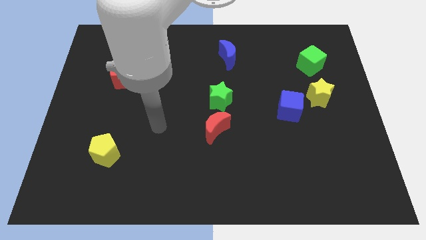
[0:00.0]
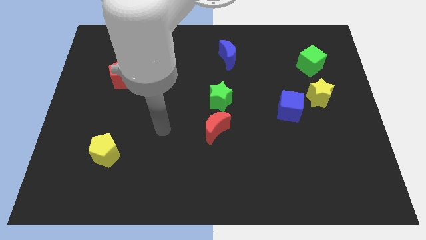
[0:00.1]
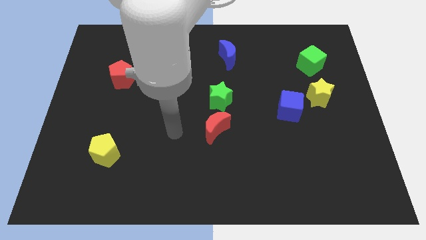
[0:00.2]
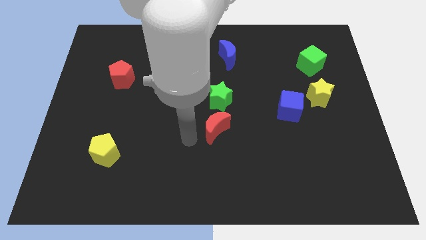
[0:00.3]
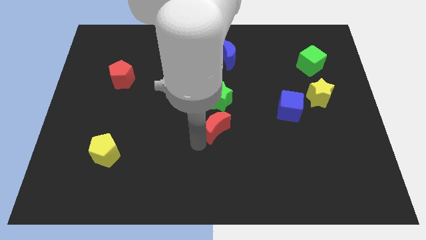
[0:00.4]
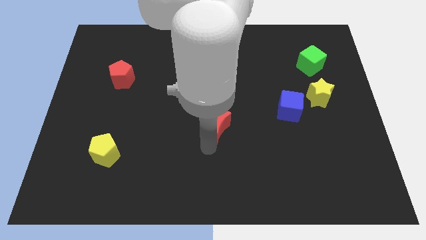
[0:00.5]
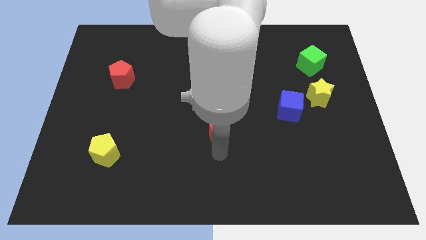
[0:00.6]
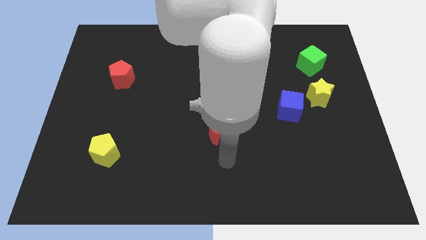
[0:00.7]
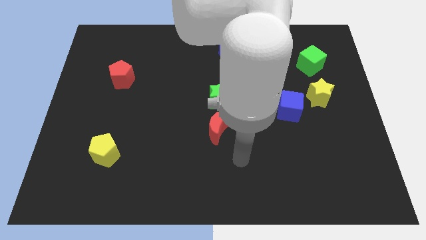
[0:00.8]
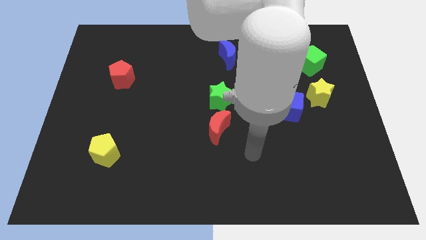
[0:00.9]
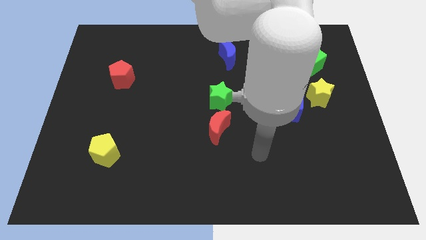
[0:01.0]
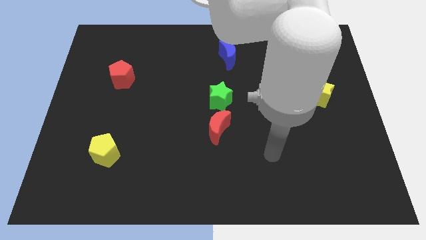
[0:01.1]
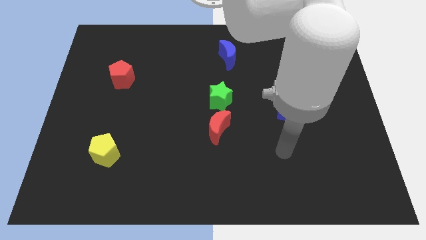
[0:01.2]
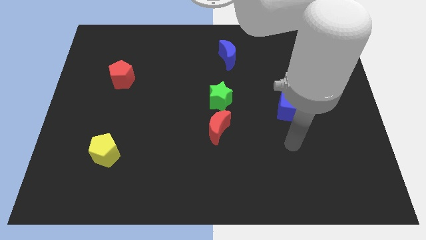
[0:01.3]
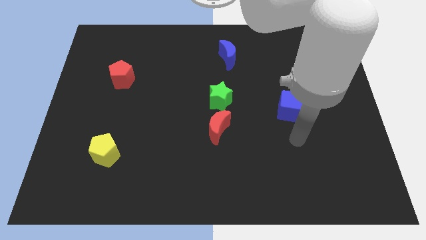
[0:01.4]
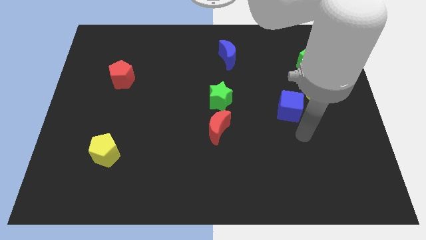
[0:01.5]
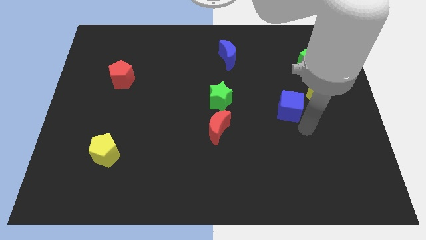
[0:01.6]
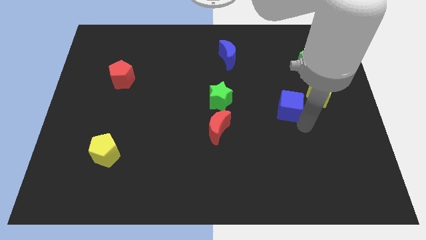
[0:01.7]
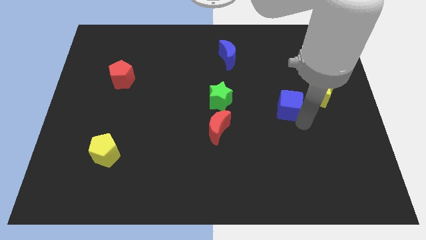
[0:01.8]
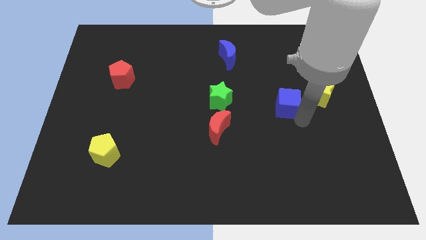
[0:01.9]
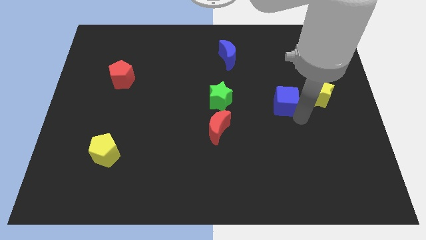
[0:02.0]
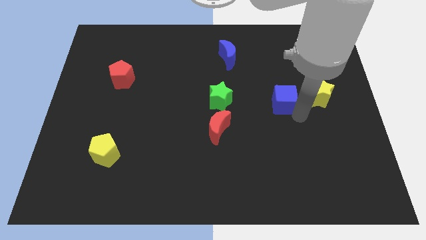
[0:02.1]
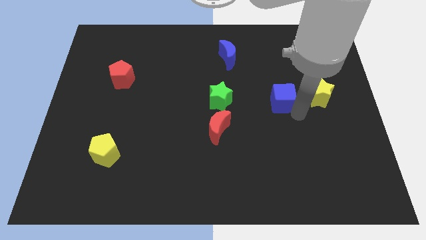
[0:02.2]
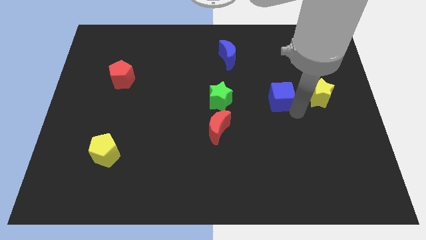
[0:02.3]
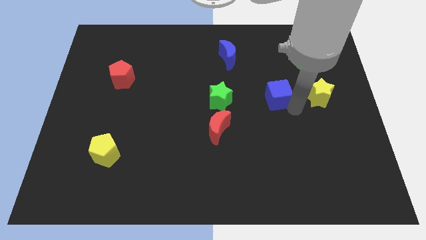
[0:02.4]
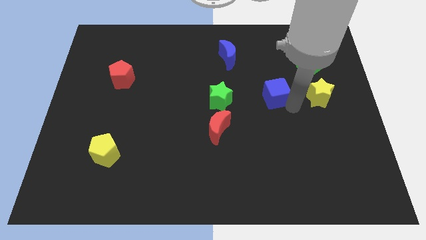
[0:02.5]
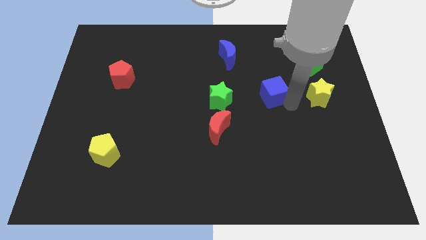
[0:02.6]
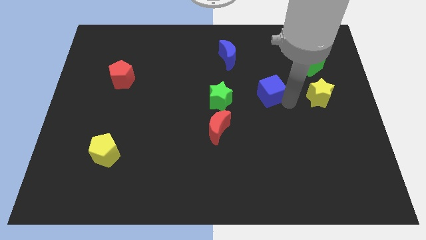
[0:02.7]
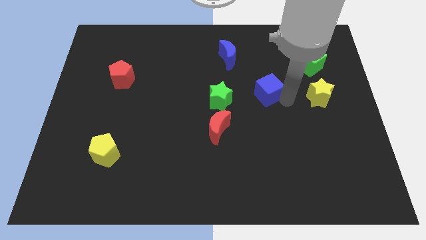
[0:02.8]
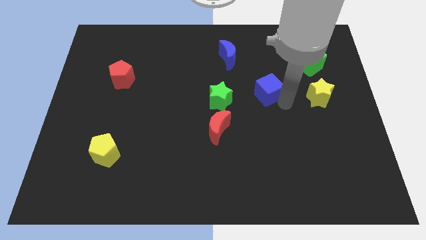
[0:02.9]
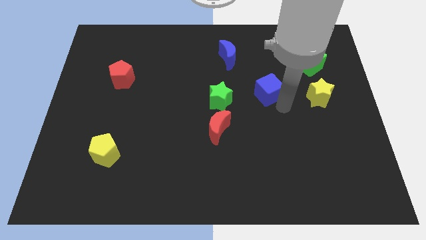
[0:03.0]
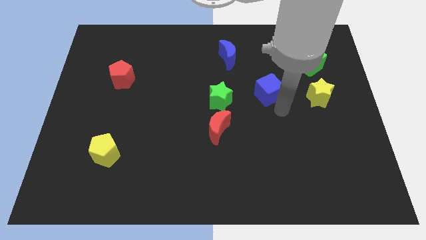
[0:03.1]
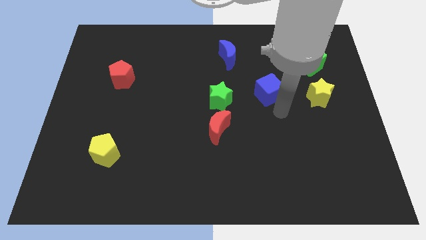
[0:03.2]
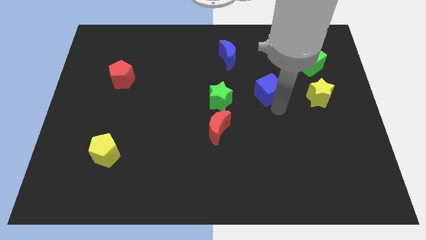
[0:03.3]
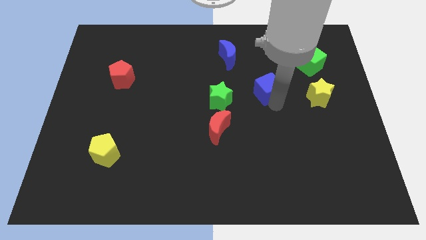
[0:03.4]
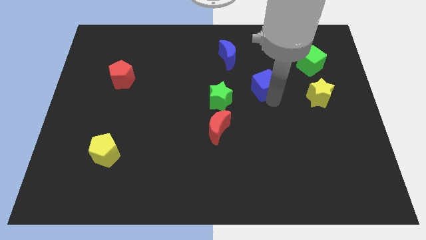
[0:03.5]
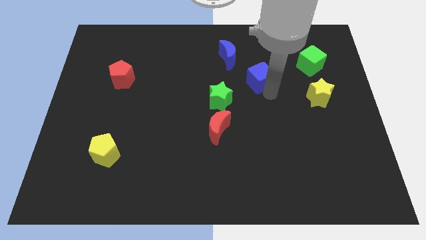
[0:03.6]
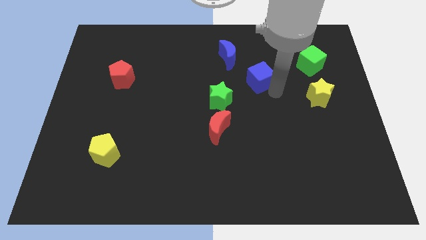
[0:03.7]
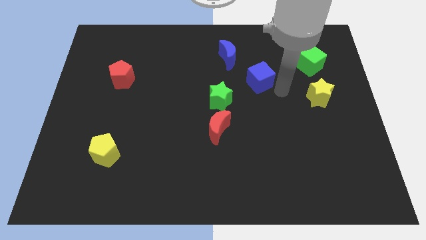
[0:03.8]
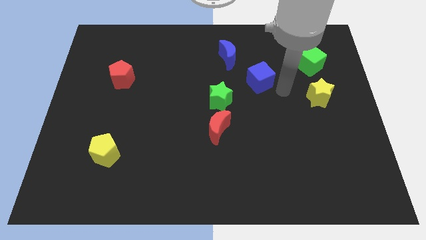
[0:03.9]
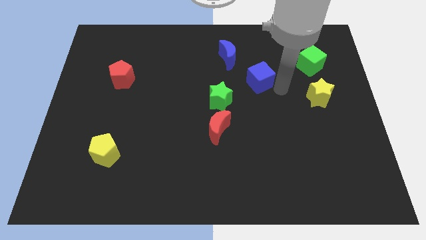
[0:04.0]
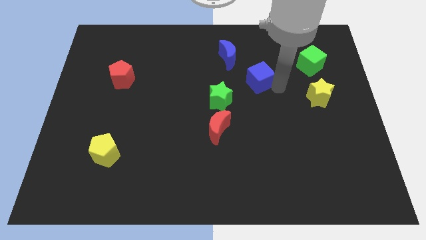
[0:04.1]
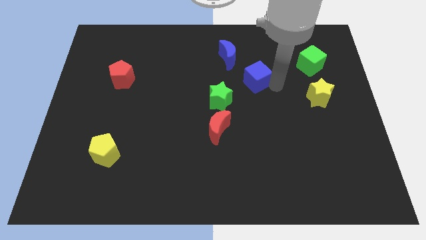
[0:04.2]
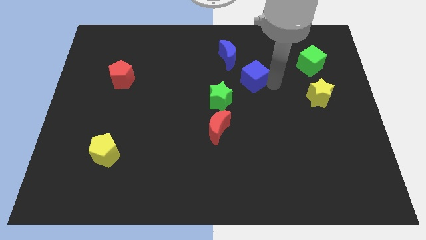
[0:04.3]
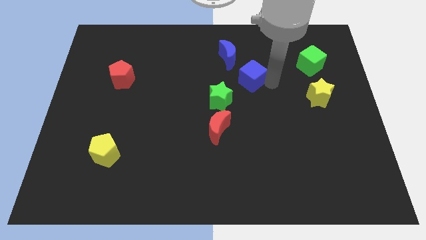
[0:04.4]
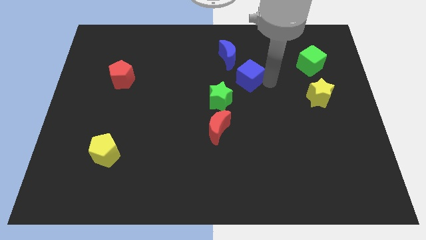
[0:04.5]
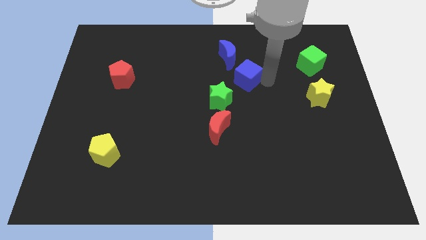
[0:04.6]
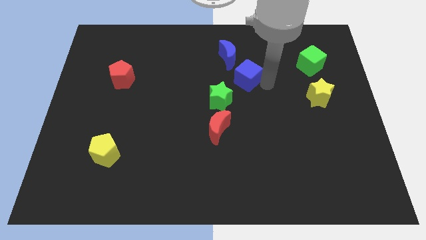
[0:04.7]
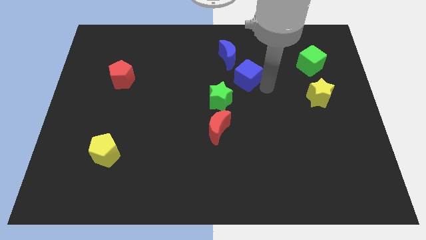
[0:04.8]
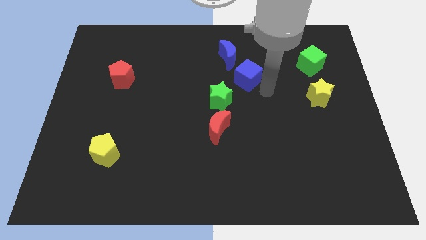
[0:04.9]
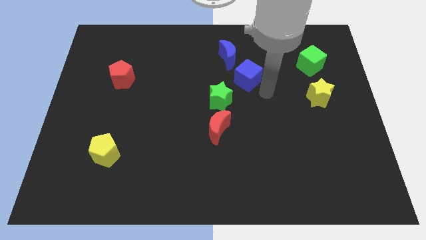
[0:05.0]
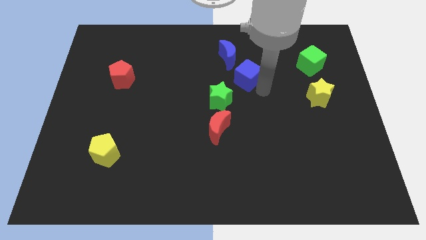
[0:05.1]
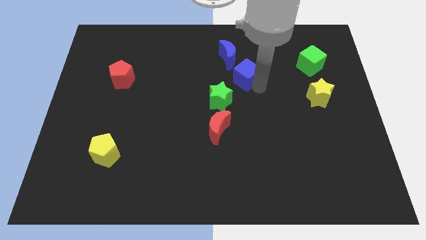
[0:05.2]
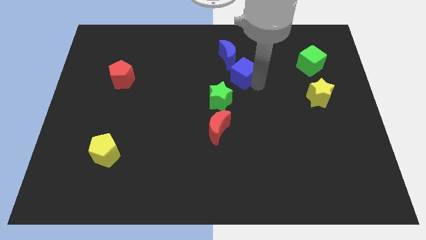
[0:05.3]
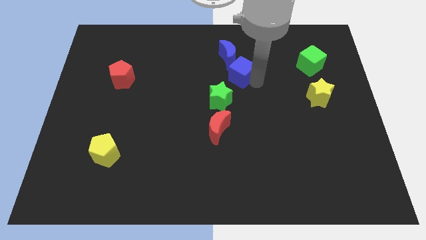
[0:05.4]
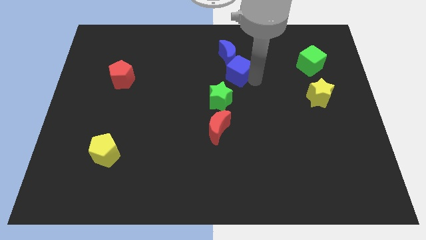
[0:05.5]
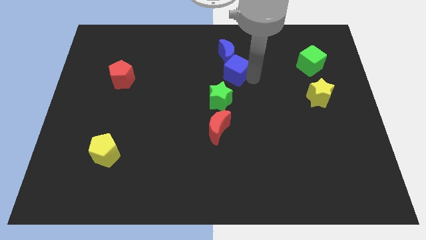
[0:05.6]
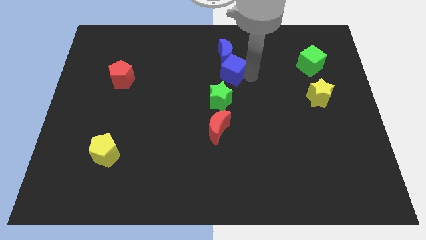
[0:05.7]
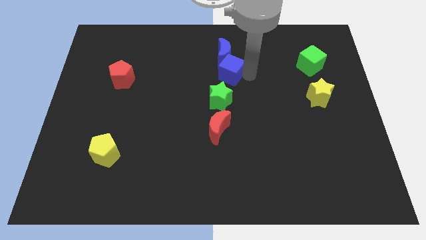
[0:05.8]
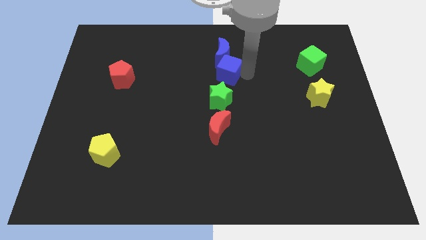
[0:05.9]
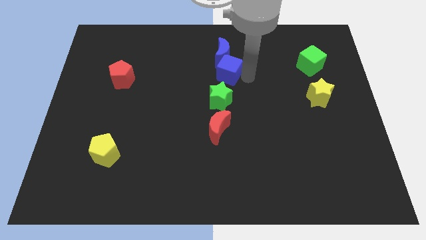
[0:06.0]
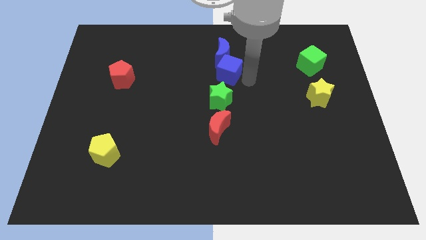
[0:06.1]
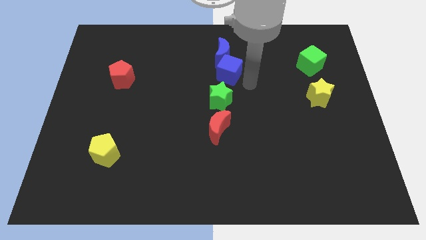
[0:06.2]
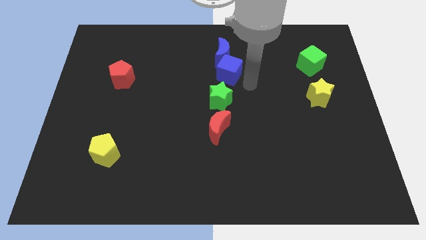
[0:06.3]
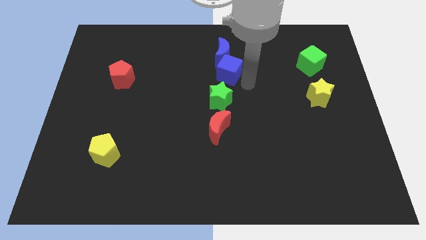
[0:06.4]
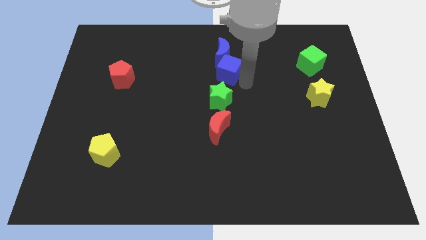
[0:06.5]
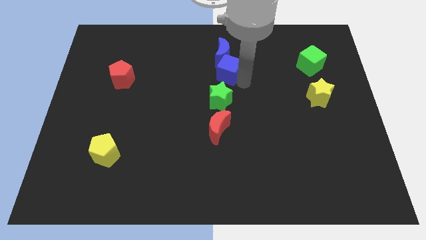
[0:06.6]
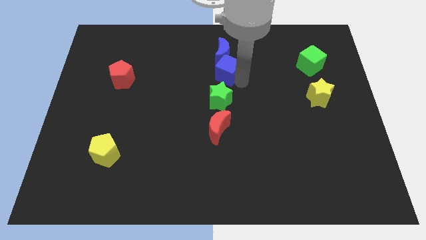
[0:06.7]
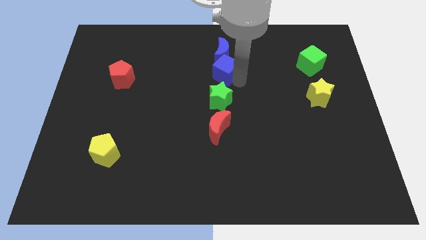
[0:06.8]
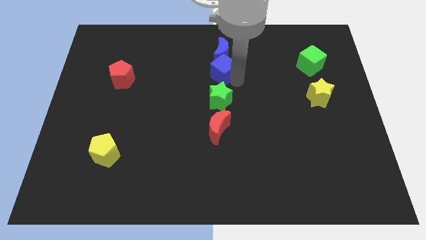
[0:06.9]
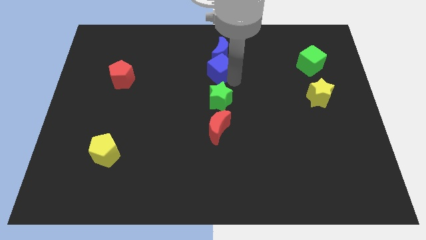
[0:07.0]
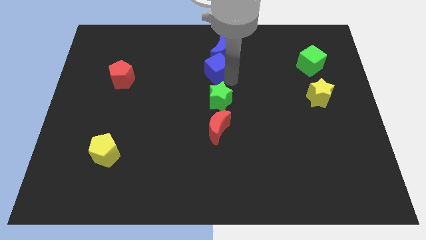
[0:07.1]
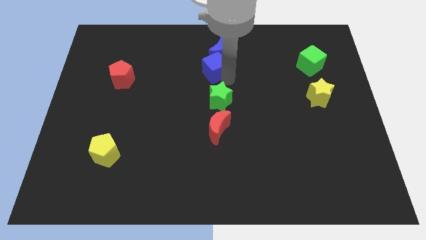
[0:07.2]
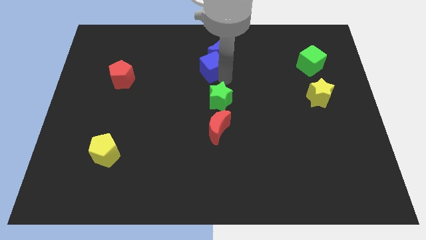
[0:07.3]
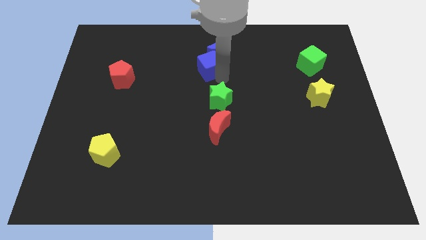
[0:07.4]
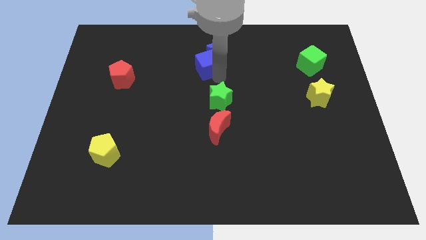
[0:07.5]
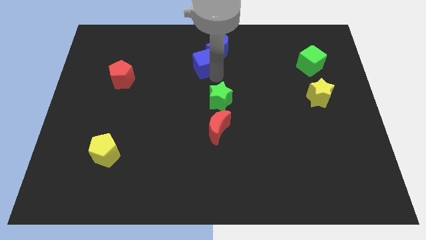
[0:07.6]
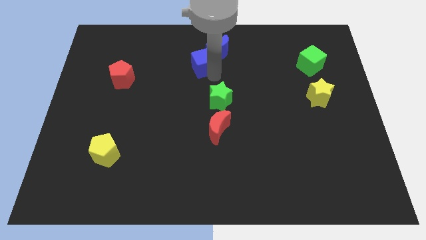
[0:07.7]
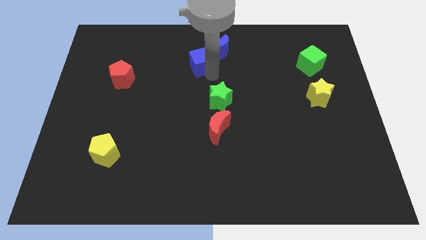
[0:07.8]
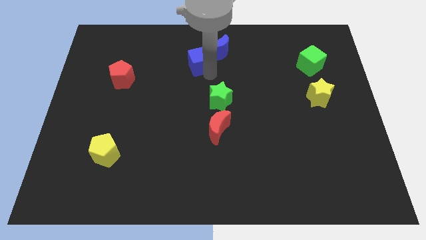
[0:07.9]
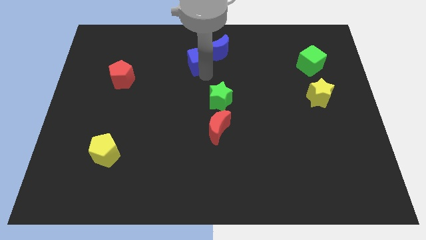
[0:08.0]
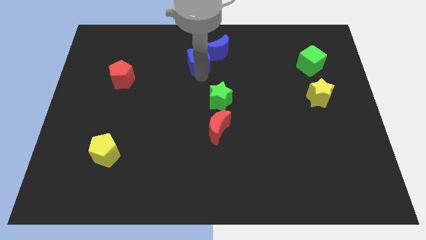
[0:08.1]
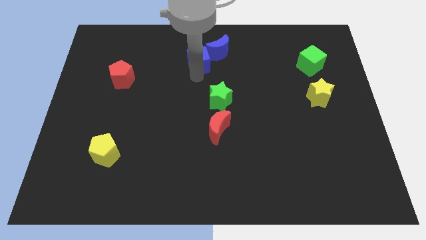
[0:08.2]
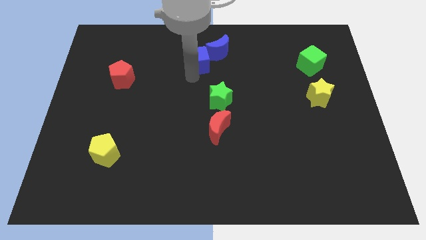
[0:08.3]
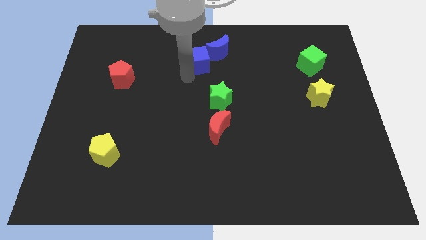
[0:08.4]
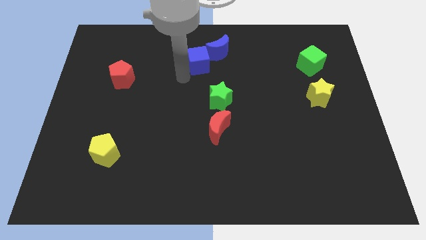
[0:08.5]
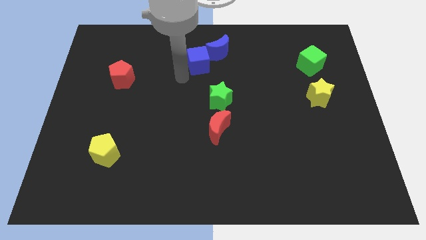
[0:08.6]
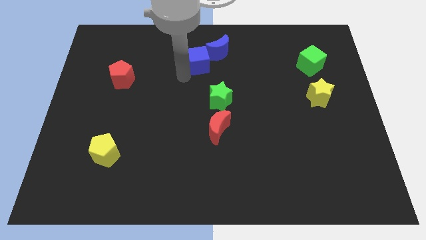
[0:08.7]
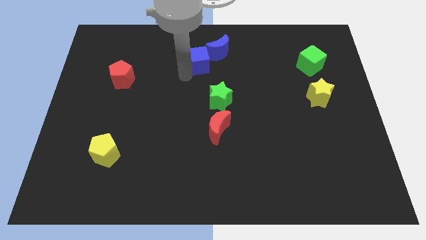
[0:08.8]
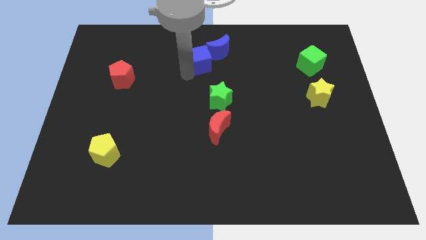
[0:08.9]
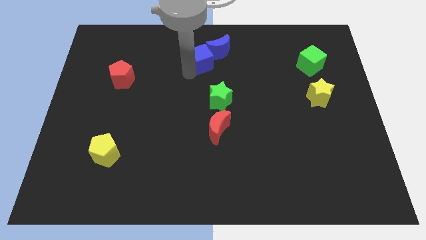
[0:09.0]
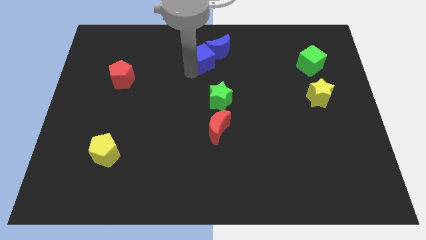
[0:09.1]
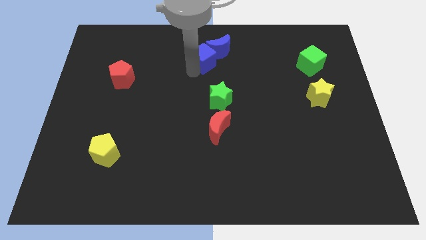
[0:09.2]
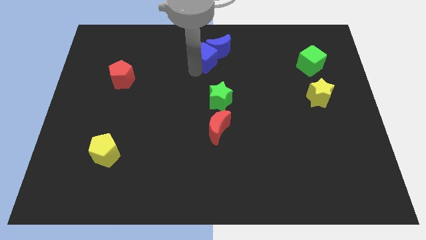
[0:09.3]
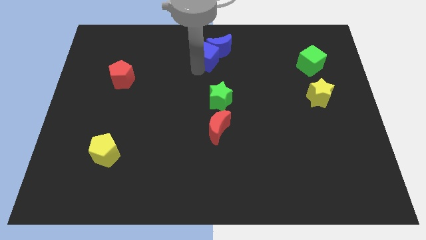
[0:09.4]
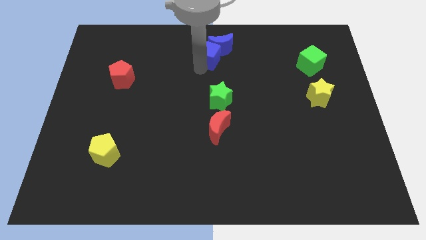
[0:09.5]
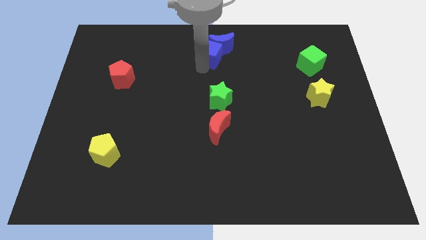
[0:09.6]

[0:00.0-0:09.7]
move the blue cube to the top
